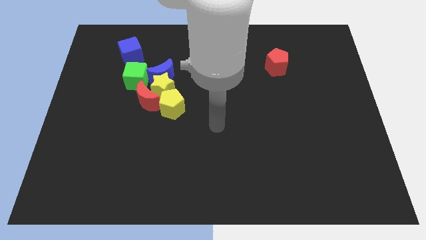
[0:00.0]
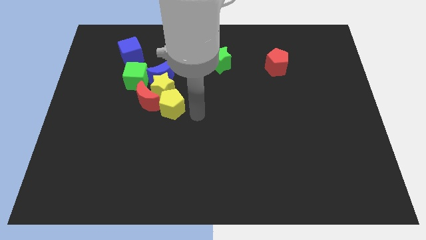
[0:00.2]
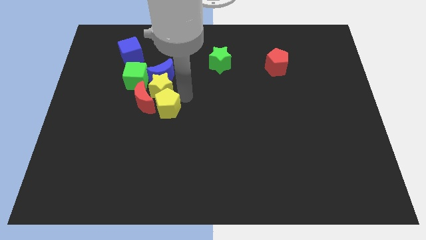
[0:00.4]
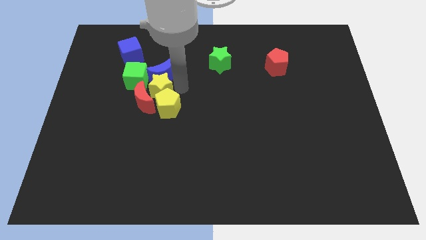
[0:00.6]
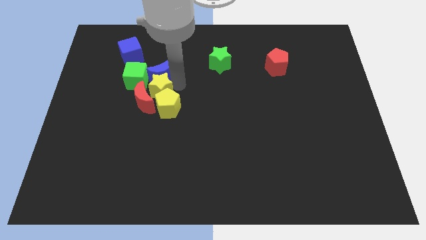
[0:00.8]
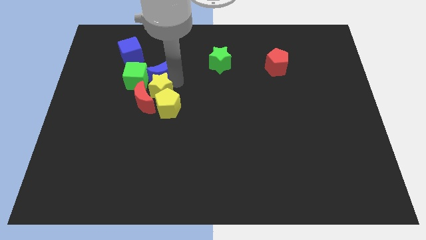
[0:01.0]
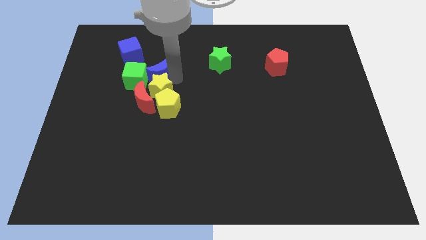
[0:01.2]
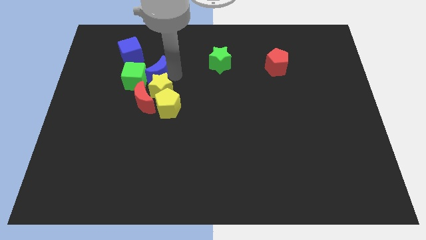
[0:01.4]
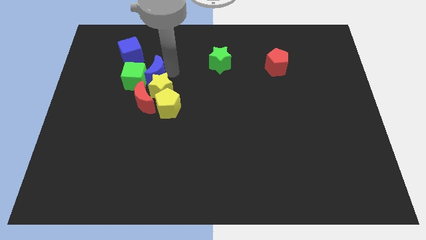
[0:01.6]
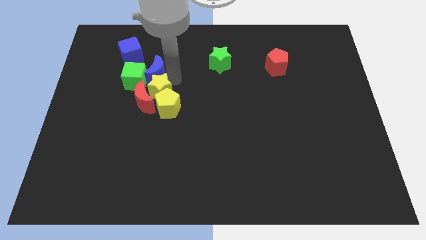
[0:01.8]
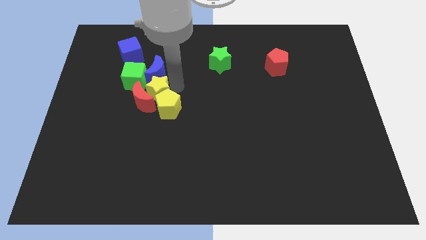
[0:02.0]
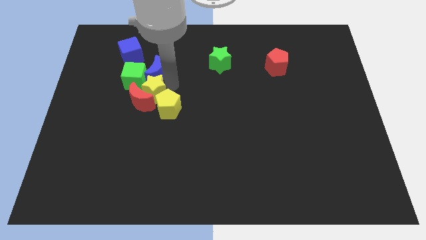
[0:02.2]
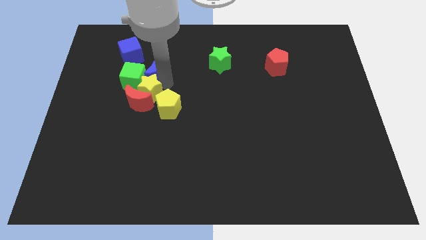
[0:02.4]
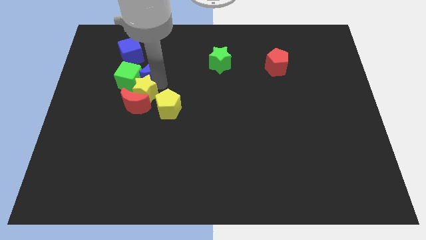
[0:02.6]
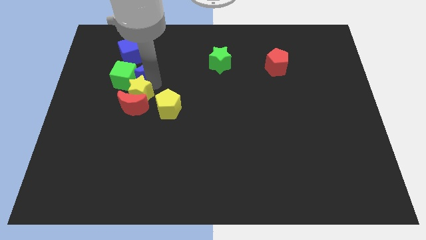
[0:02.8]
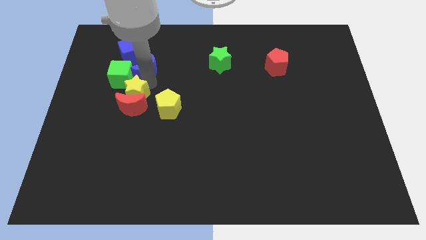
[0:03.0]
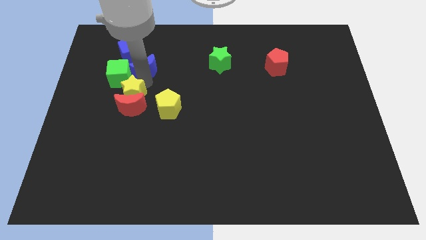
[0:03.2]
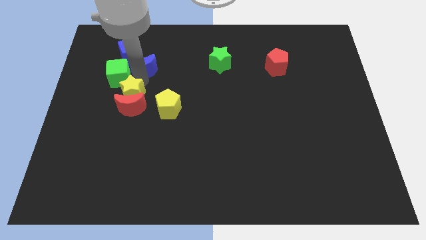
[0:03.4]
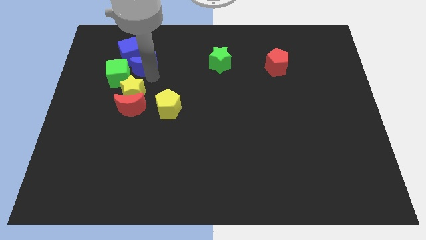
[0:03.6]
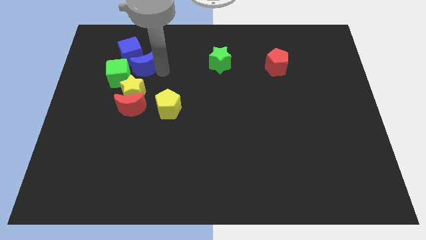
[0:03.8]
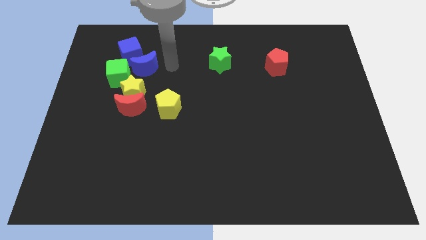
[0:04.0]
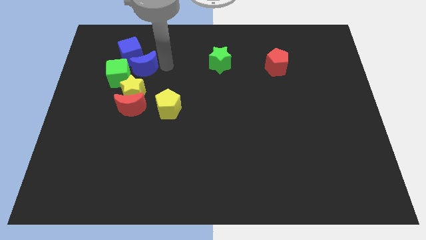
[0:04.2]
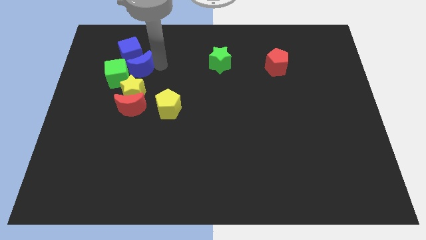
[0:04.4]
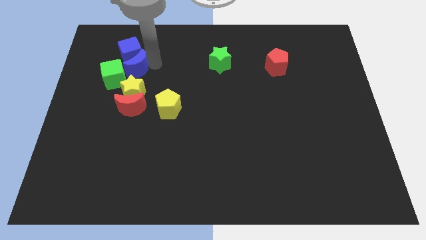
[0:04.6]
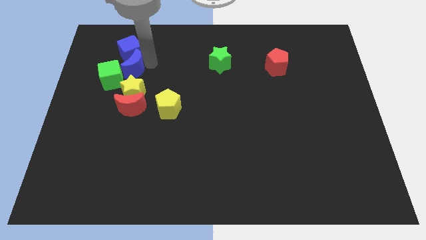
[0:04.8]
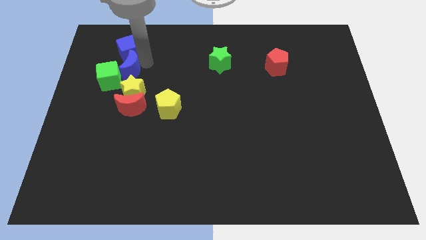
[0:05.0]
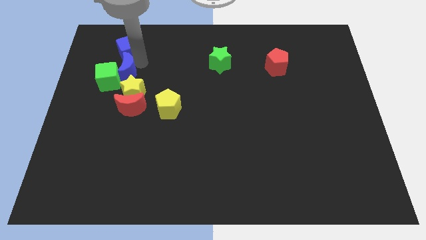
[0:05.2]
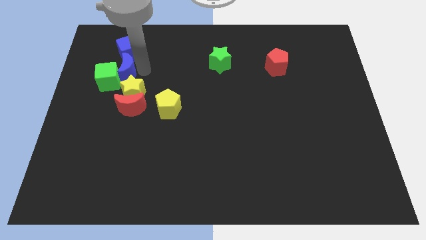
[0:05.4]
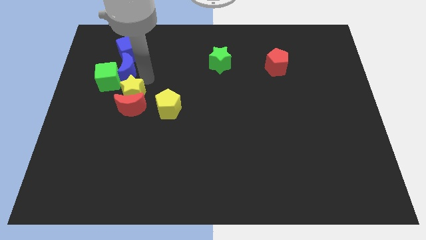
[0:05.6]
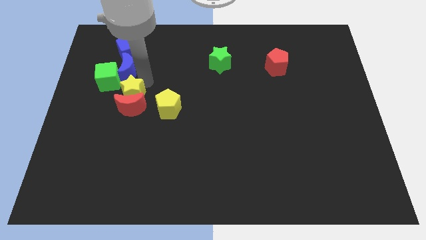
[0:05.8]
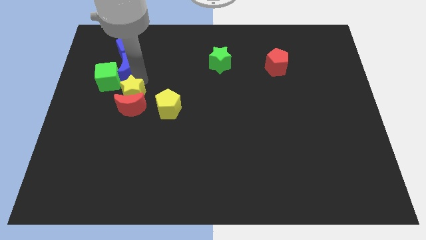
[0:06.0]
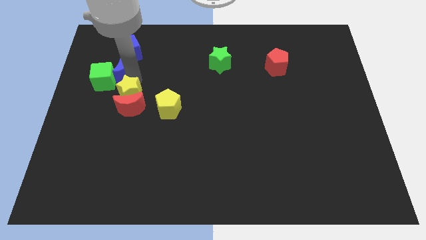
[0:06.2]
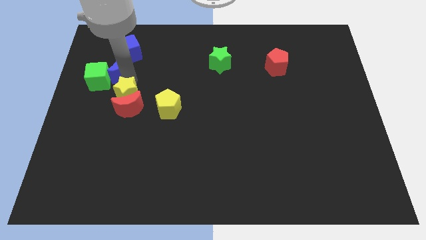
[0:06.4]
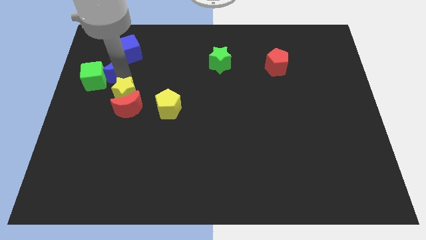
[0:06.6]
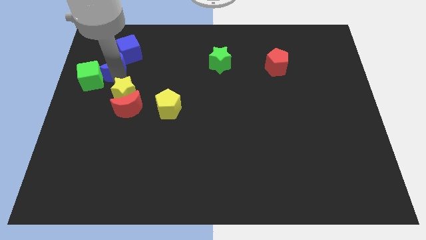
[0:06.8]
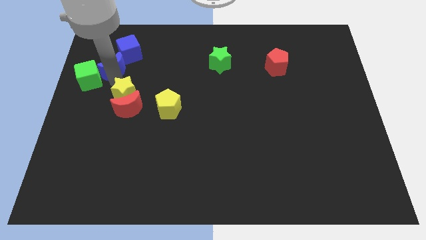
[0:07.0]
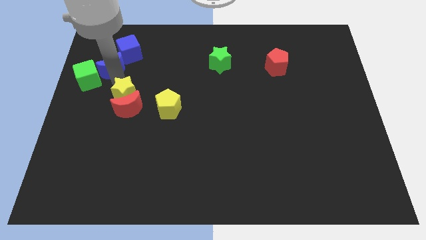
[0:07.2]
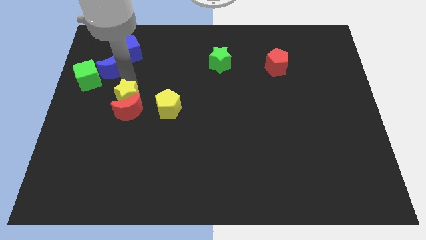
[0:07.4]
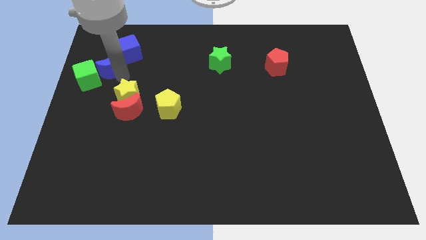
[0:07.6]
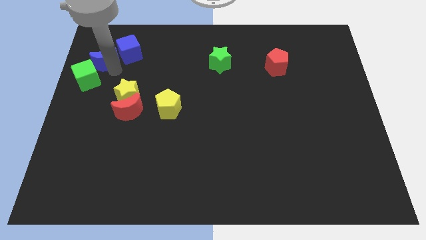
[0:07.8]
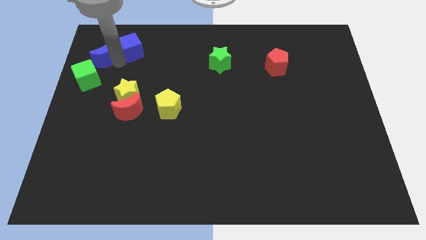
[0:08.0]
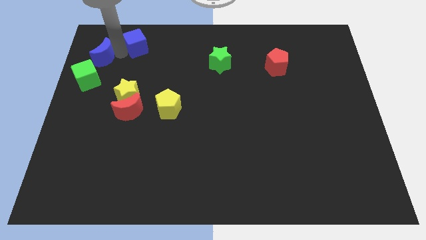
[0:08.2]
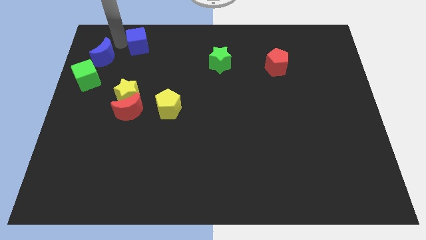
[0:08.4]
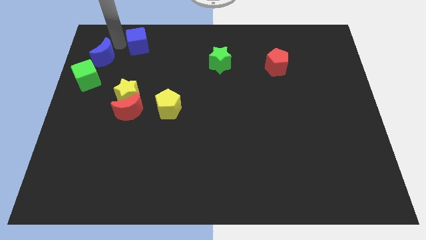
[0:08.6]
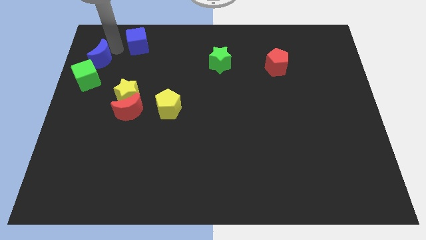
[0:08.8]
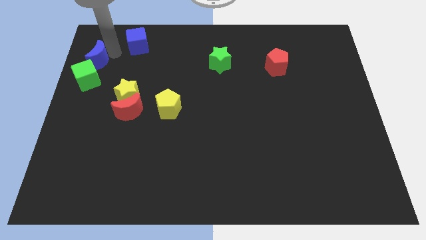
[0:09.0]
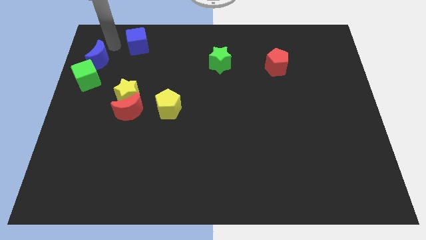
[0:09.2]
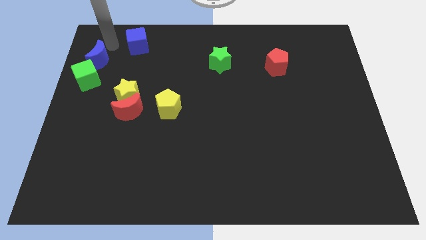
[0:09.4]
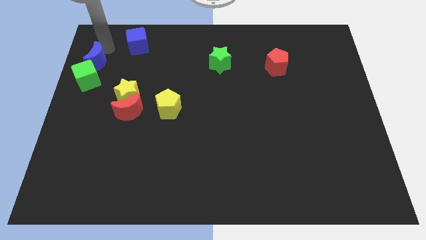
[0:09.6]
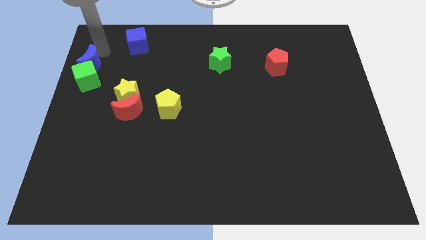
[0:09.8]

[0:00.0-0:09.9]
push the blue moon to the left side

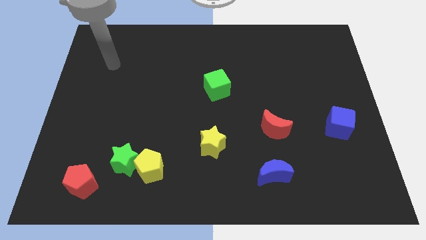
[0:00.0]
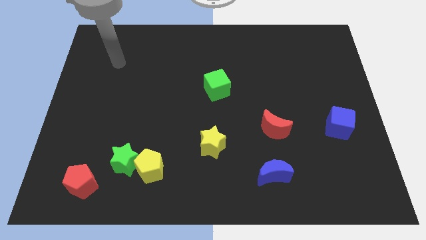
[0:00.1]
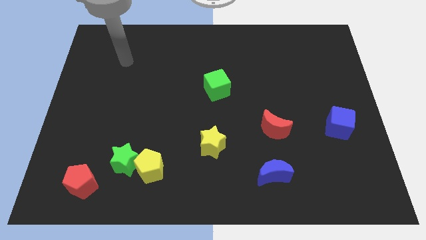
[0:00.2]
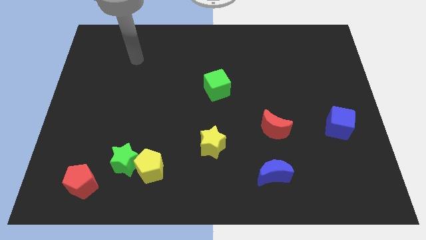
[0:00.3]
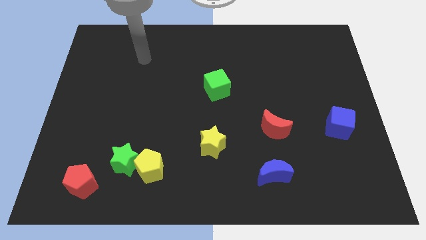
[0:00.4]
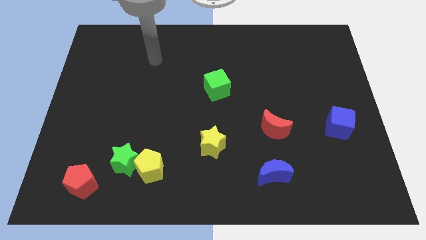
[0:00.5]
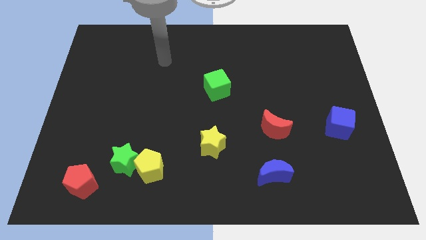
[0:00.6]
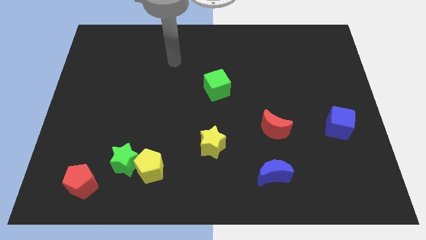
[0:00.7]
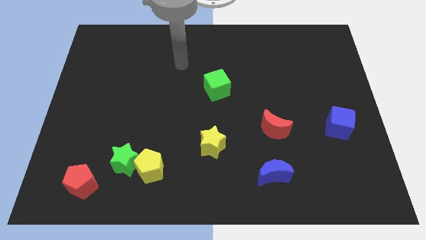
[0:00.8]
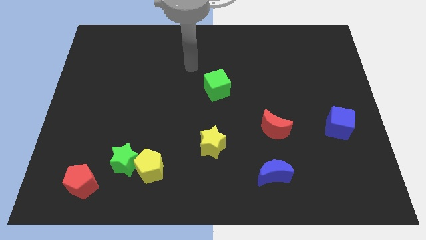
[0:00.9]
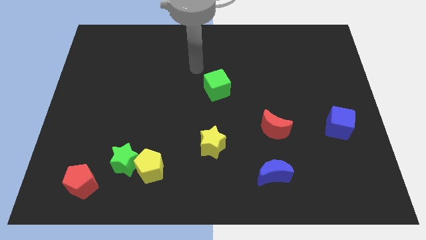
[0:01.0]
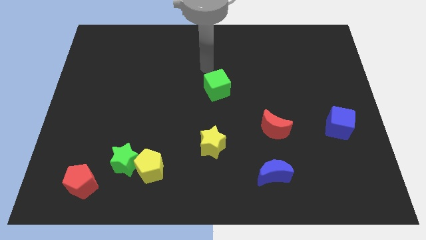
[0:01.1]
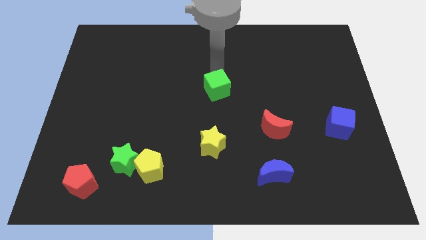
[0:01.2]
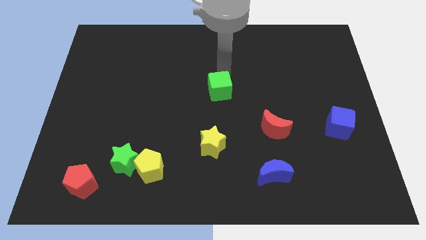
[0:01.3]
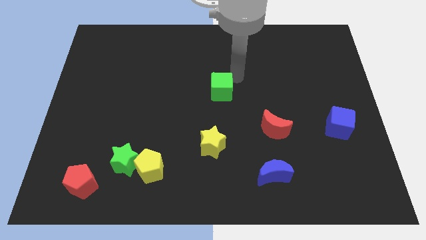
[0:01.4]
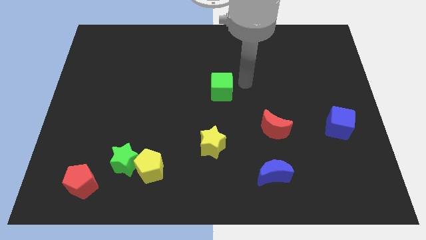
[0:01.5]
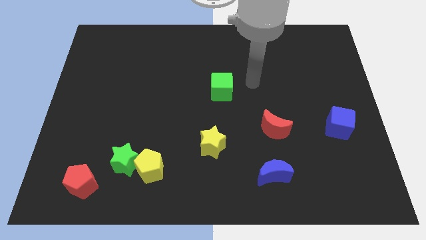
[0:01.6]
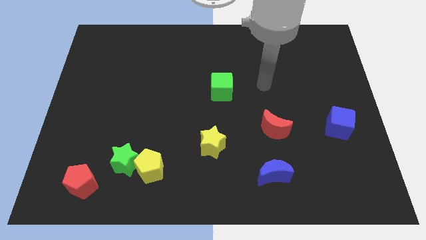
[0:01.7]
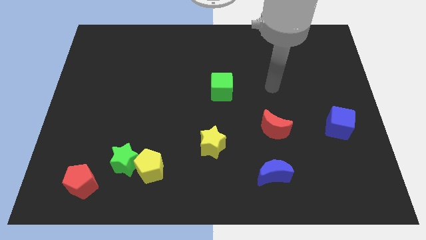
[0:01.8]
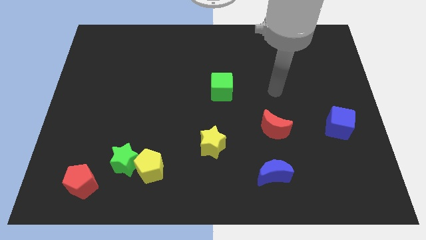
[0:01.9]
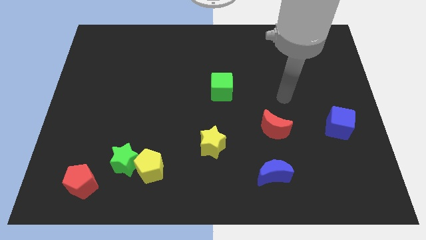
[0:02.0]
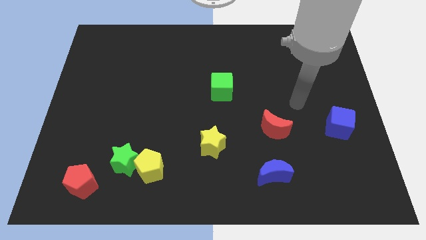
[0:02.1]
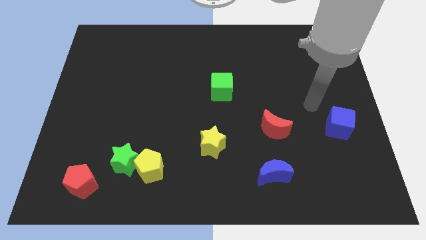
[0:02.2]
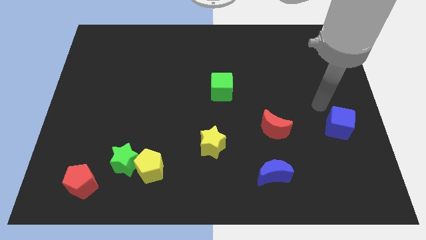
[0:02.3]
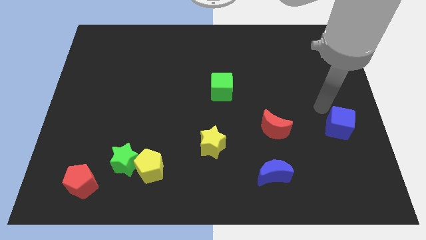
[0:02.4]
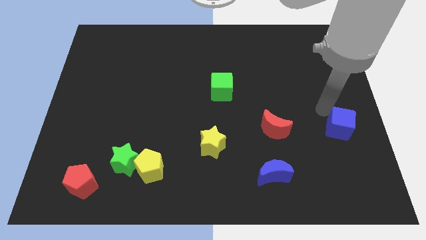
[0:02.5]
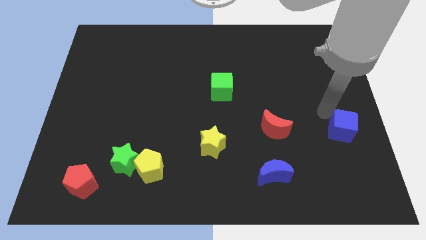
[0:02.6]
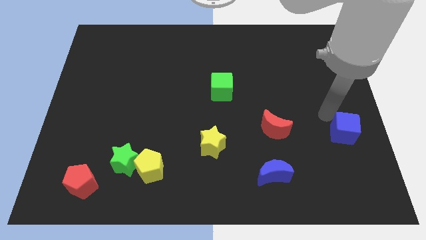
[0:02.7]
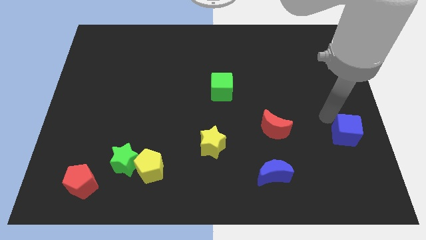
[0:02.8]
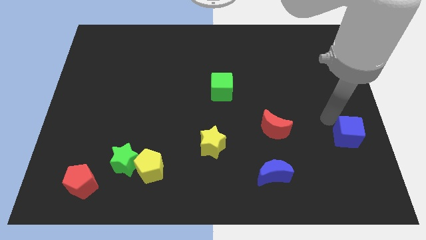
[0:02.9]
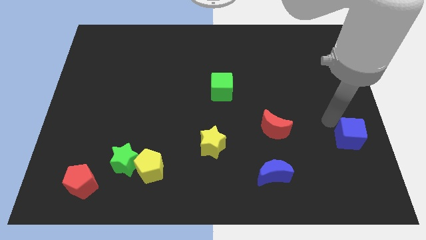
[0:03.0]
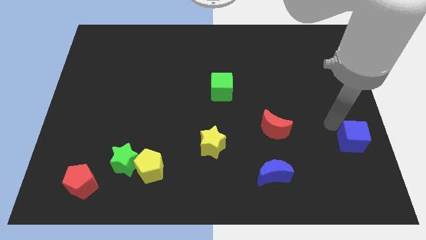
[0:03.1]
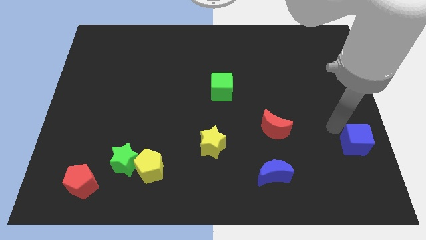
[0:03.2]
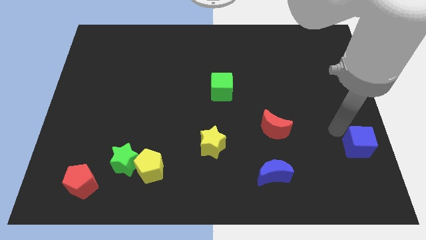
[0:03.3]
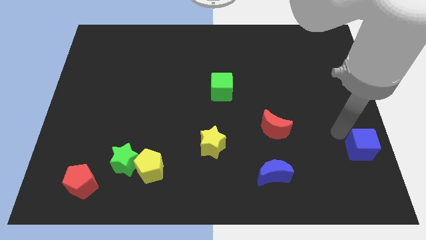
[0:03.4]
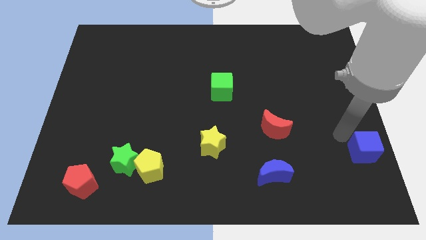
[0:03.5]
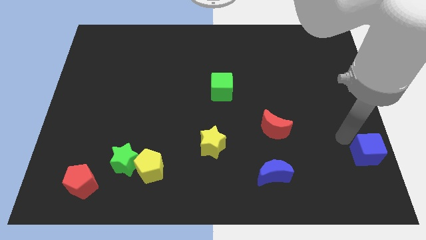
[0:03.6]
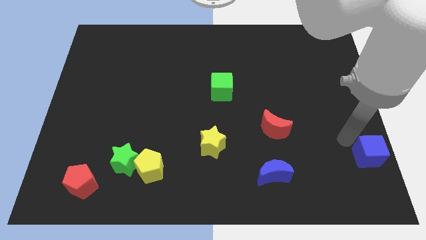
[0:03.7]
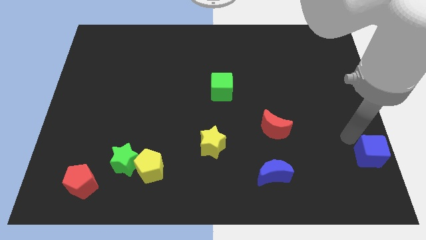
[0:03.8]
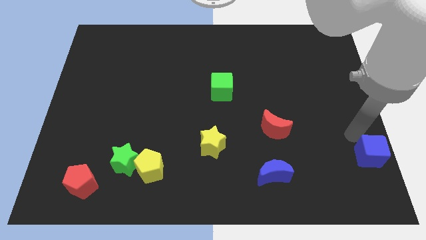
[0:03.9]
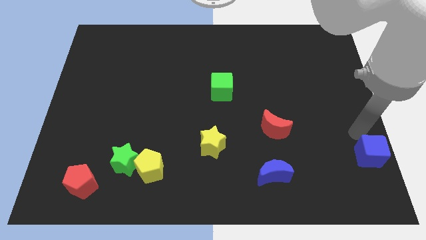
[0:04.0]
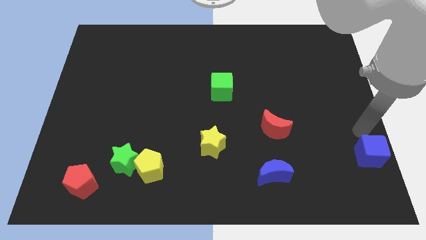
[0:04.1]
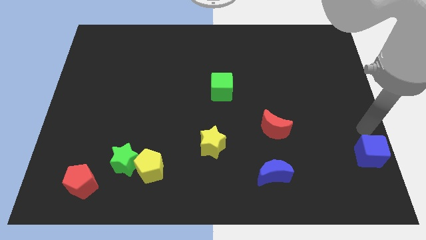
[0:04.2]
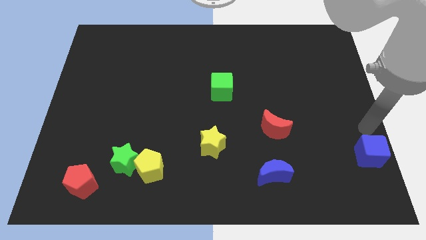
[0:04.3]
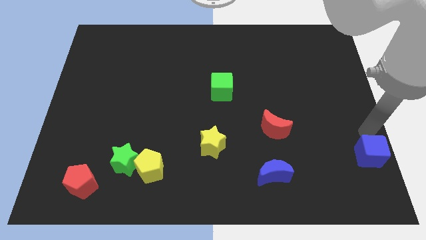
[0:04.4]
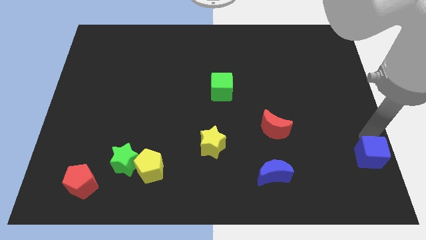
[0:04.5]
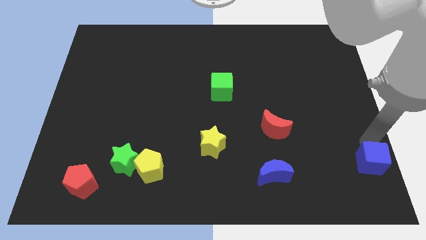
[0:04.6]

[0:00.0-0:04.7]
move the blue cube to the bottom right corner
